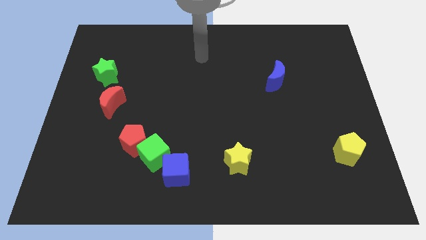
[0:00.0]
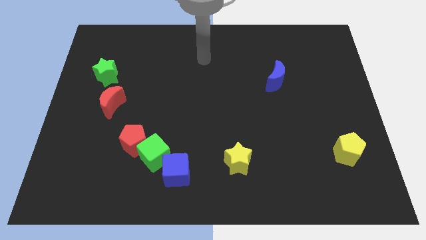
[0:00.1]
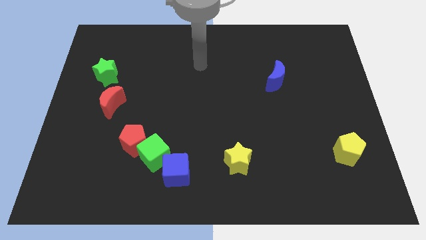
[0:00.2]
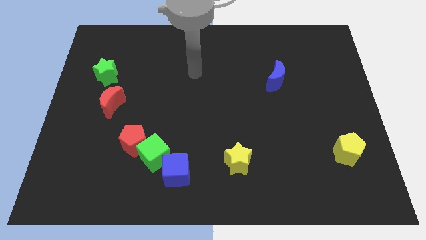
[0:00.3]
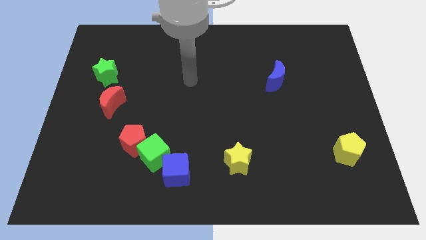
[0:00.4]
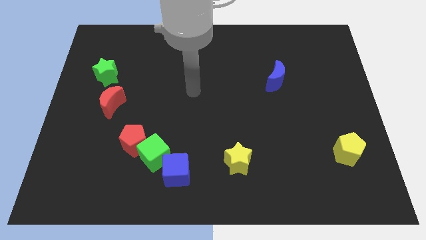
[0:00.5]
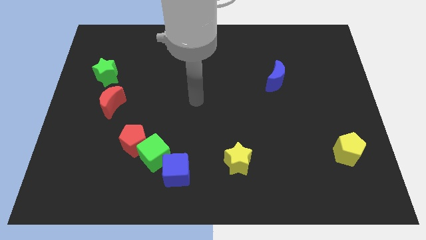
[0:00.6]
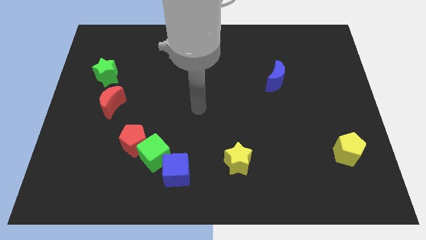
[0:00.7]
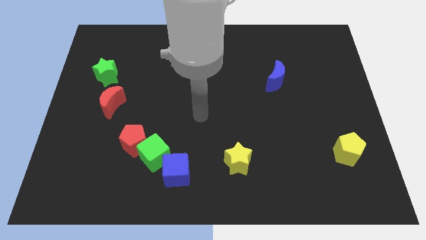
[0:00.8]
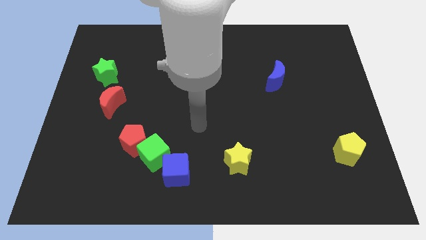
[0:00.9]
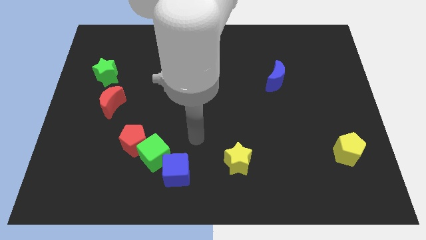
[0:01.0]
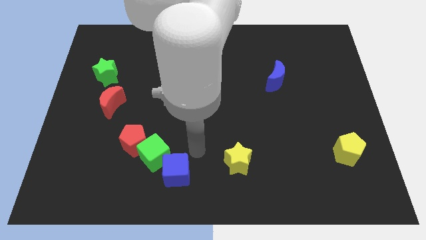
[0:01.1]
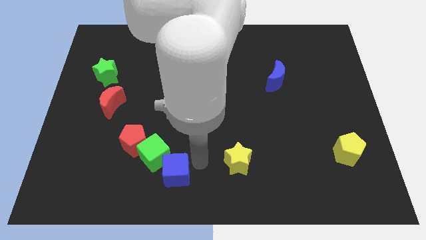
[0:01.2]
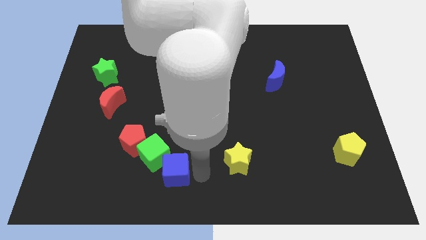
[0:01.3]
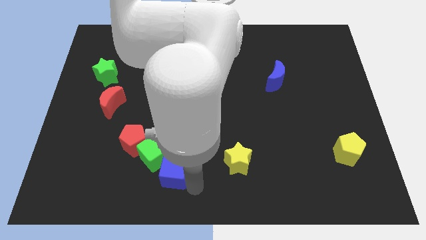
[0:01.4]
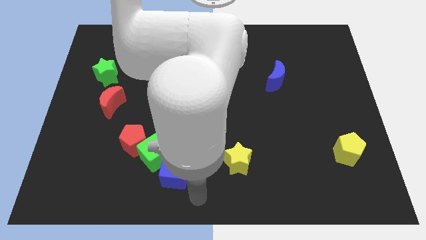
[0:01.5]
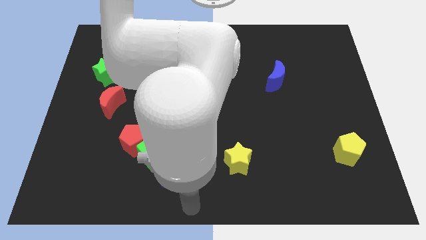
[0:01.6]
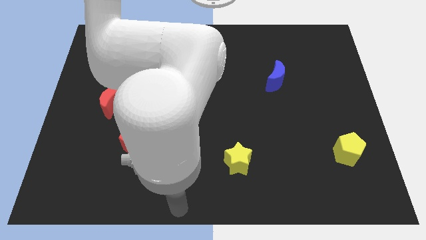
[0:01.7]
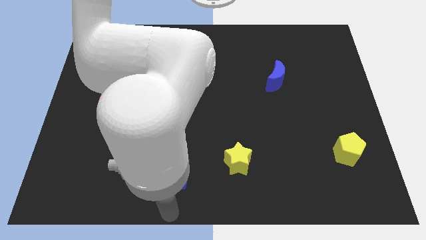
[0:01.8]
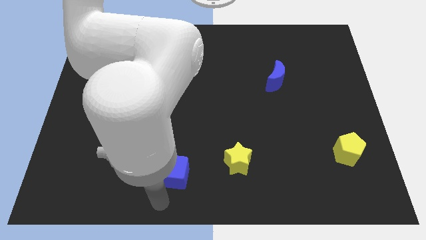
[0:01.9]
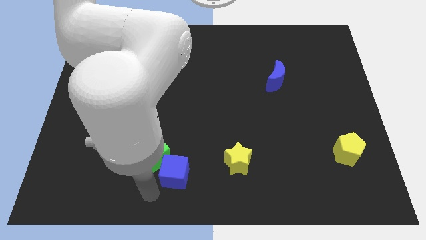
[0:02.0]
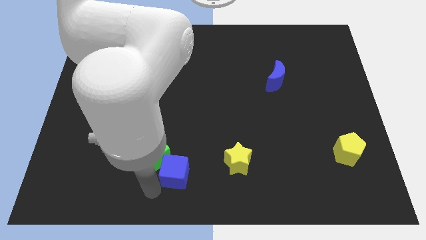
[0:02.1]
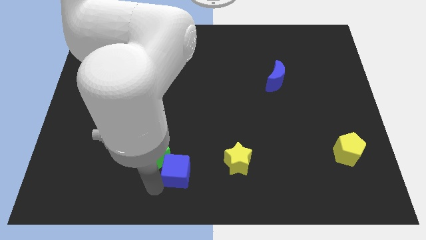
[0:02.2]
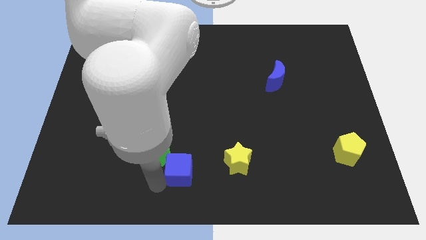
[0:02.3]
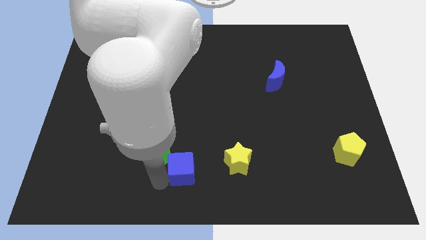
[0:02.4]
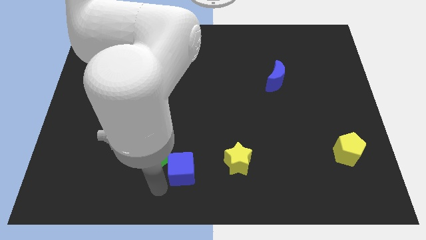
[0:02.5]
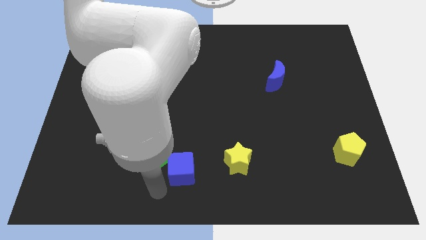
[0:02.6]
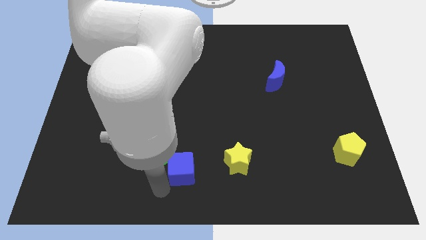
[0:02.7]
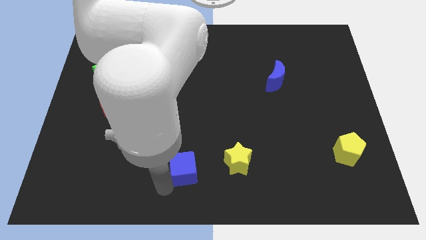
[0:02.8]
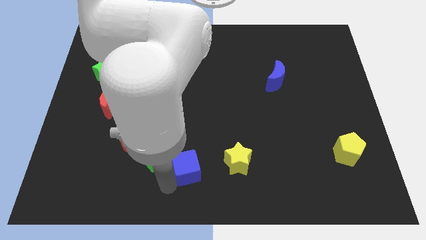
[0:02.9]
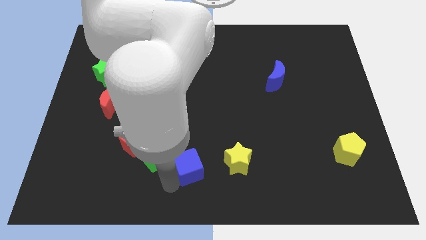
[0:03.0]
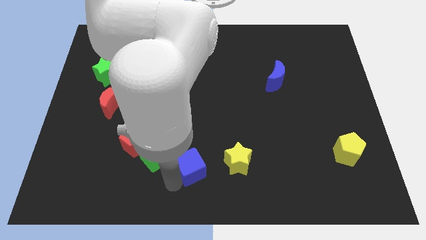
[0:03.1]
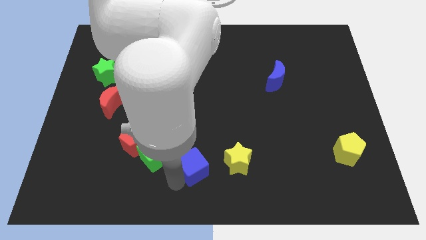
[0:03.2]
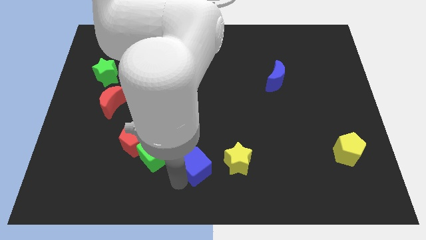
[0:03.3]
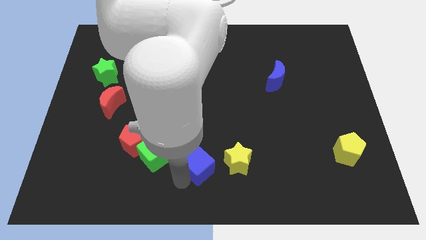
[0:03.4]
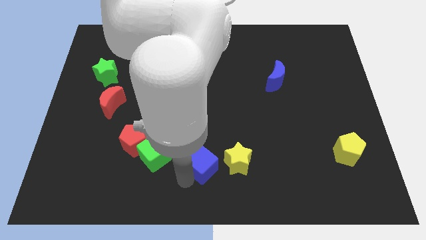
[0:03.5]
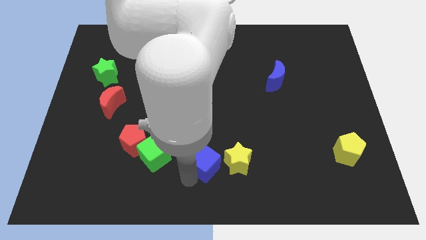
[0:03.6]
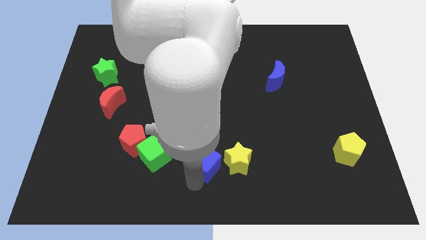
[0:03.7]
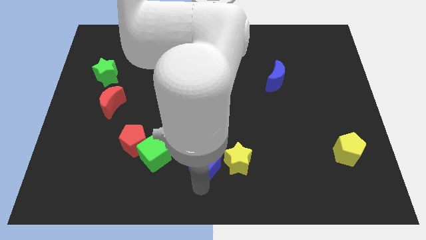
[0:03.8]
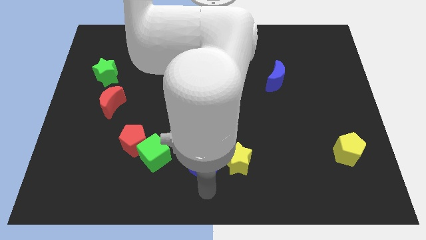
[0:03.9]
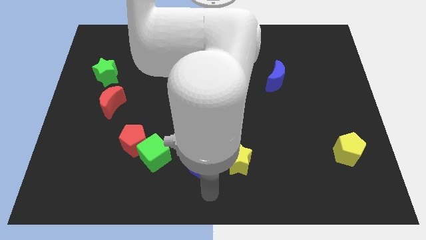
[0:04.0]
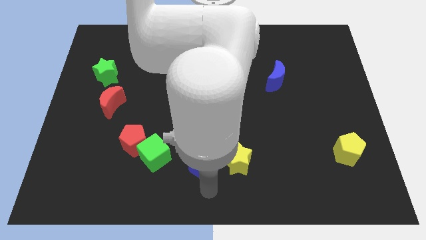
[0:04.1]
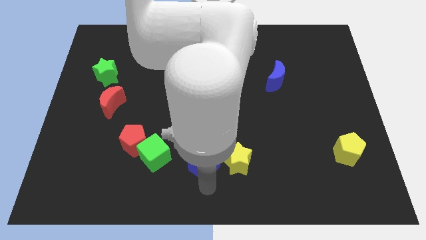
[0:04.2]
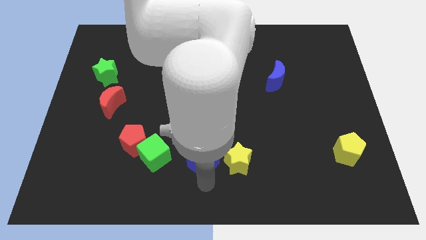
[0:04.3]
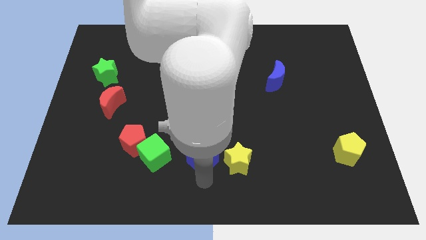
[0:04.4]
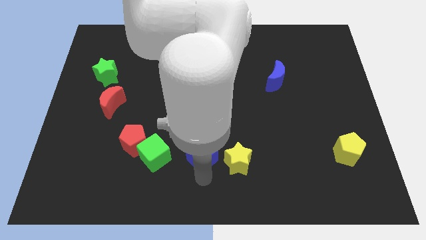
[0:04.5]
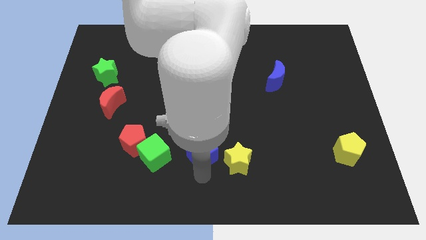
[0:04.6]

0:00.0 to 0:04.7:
move the blue cube slightly upwards and then right

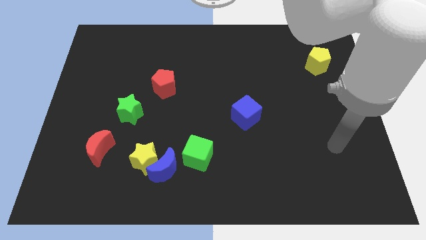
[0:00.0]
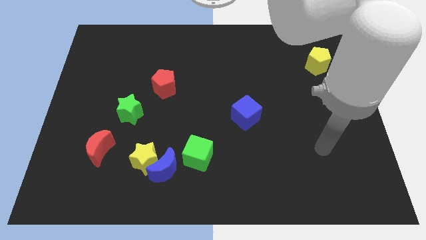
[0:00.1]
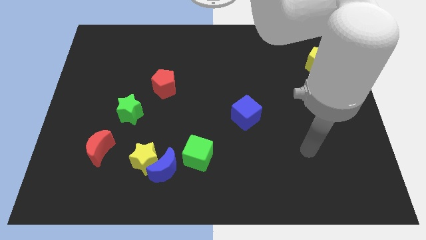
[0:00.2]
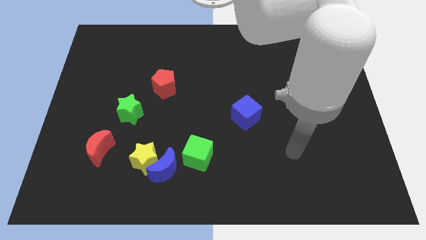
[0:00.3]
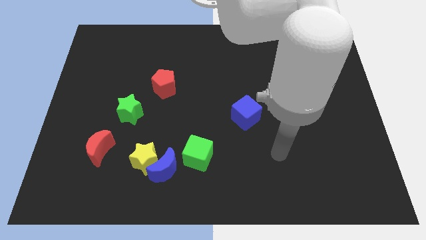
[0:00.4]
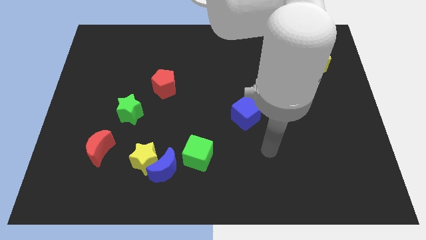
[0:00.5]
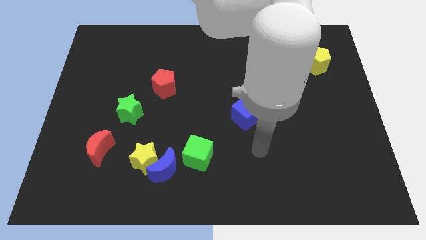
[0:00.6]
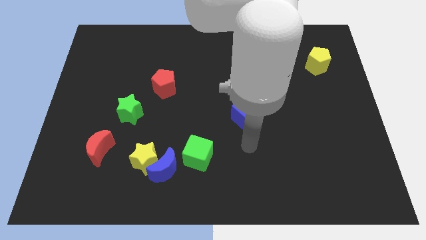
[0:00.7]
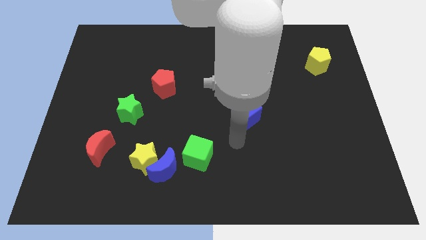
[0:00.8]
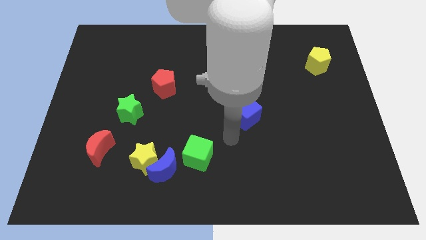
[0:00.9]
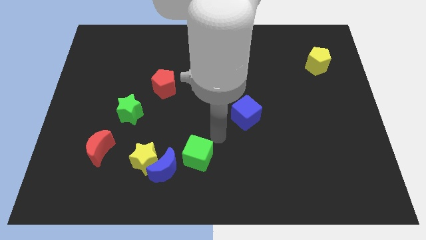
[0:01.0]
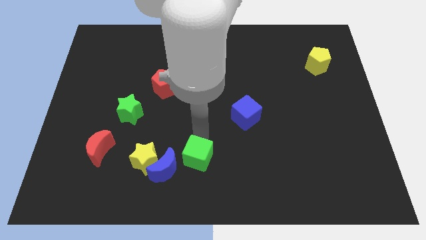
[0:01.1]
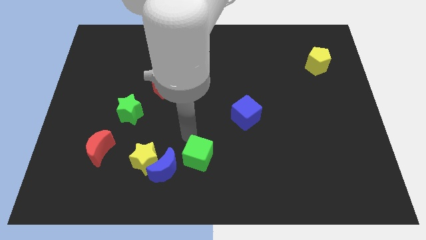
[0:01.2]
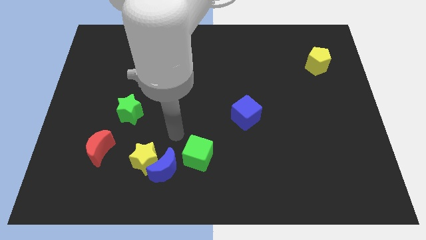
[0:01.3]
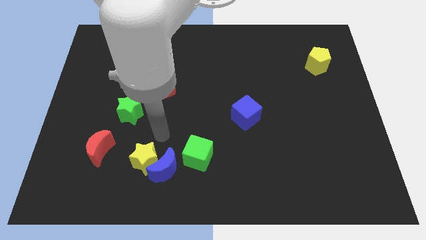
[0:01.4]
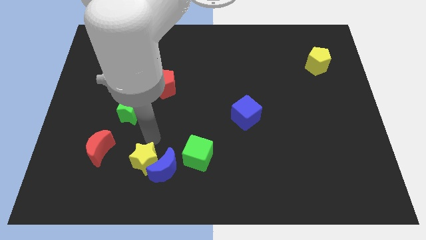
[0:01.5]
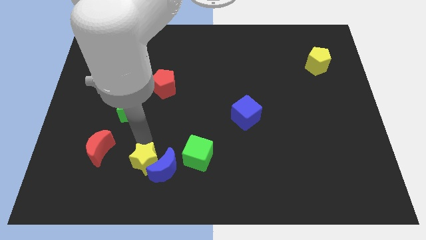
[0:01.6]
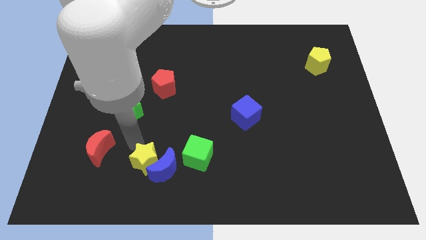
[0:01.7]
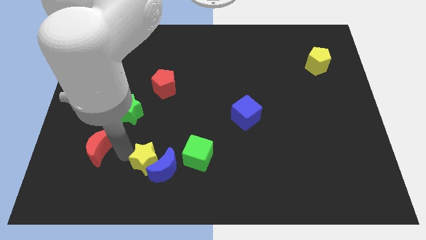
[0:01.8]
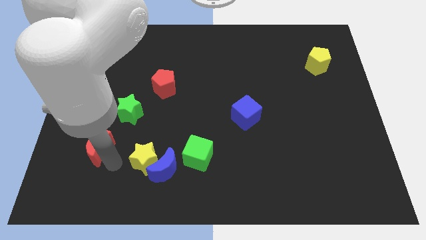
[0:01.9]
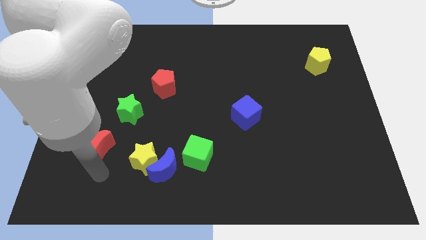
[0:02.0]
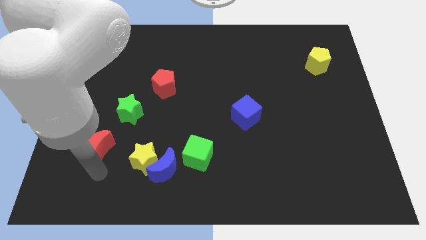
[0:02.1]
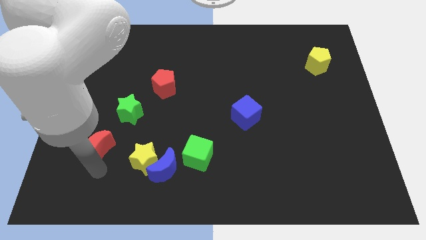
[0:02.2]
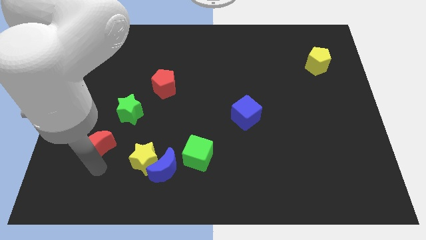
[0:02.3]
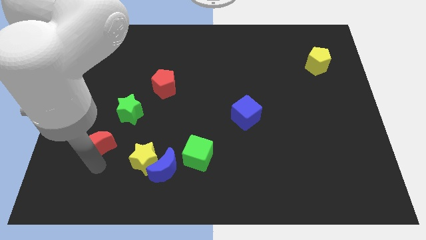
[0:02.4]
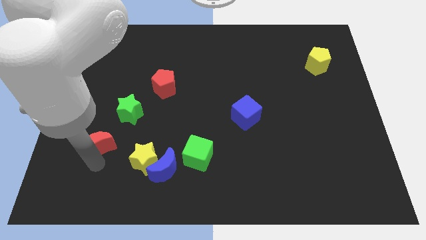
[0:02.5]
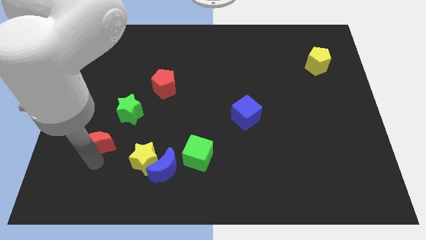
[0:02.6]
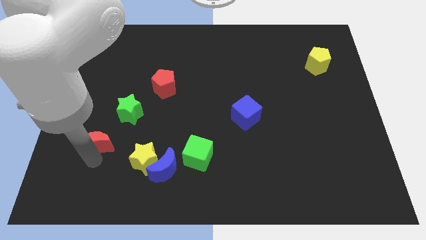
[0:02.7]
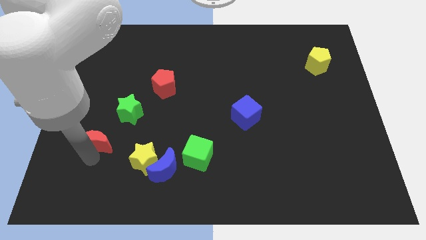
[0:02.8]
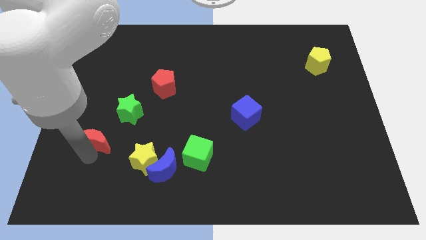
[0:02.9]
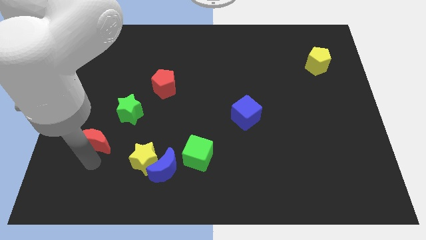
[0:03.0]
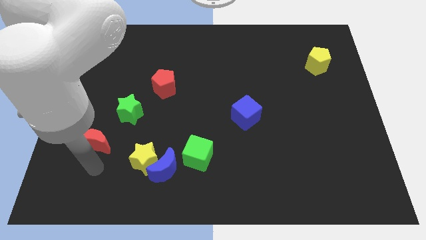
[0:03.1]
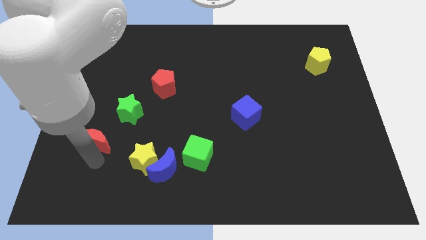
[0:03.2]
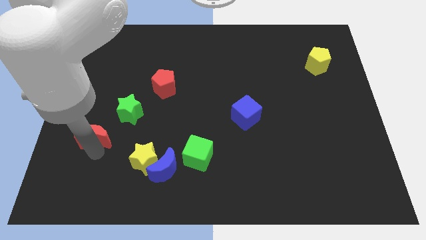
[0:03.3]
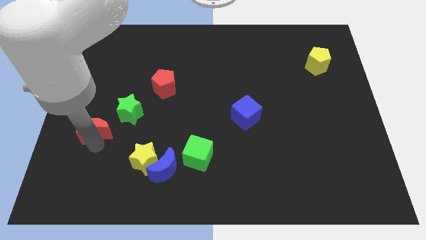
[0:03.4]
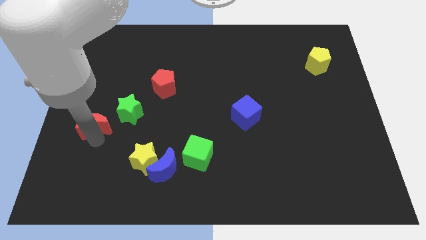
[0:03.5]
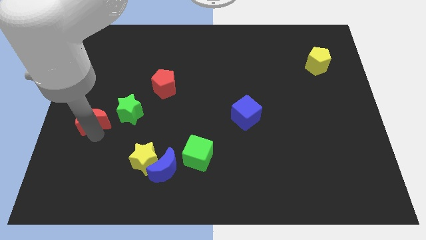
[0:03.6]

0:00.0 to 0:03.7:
push the red moon upwards a little
